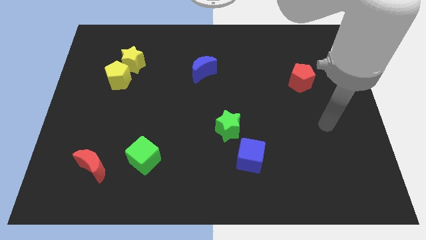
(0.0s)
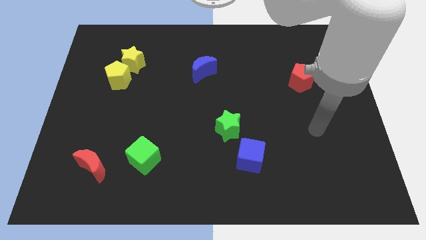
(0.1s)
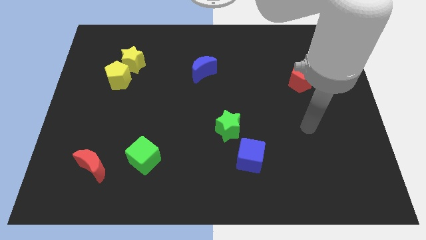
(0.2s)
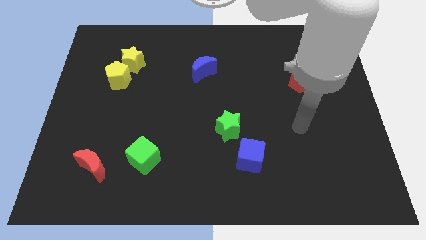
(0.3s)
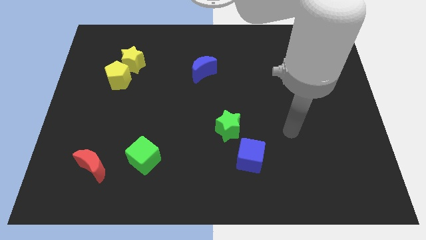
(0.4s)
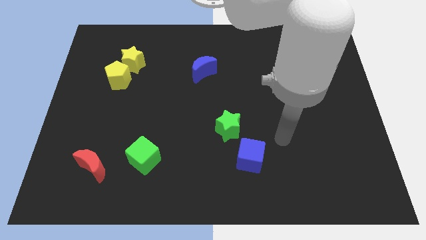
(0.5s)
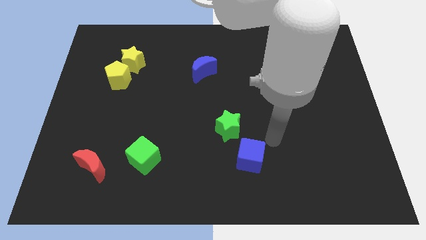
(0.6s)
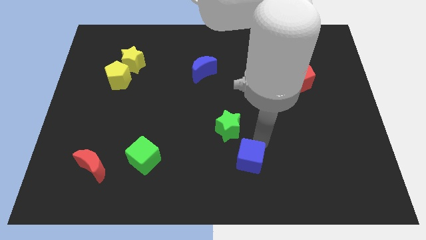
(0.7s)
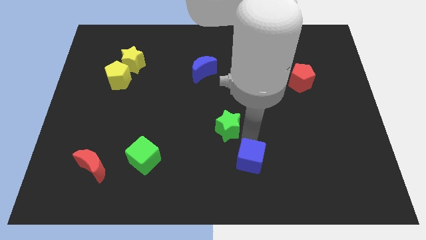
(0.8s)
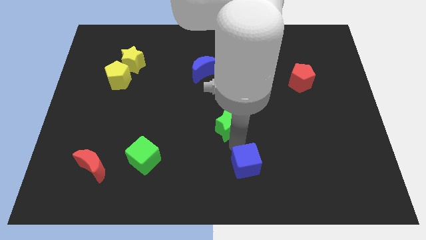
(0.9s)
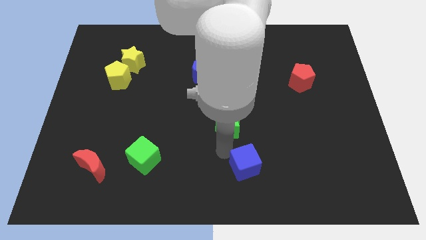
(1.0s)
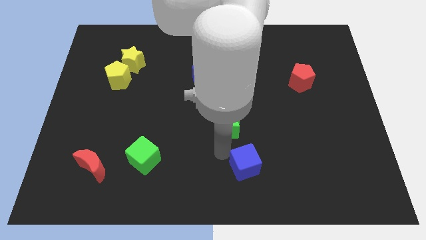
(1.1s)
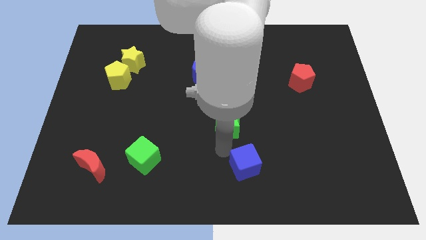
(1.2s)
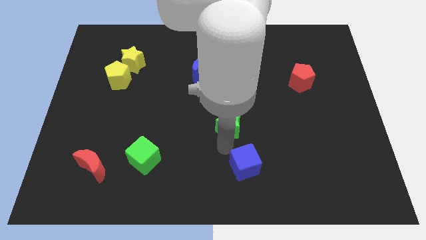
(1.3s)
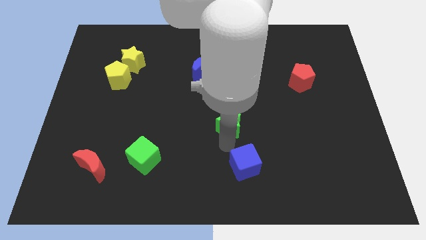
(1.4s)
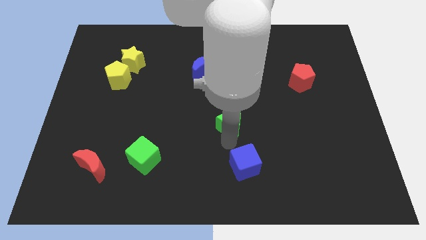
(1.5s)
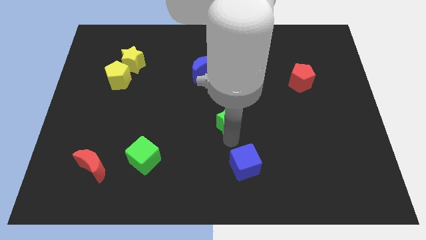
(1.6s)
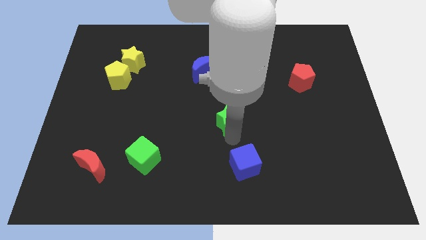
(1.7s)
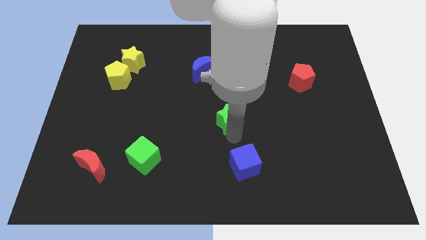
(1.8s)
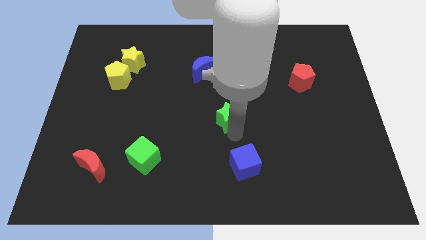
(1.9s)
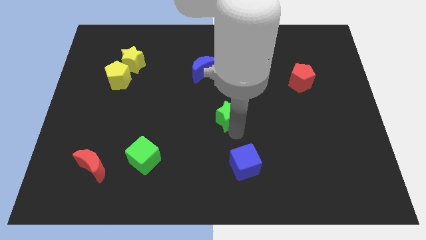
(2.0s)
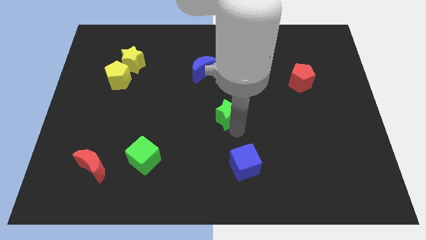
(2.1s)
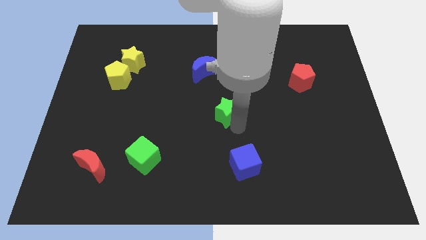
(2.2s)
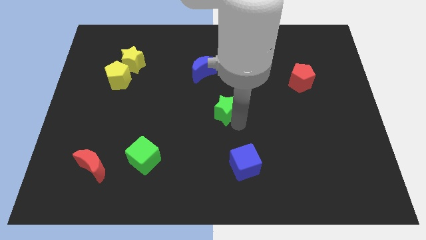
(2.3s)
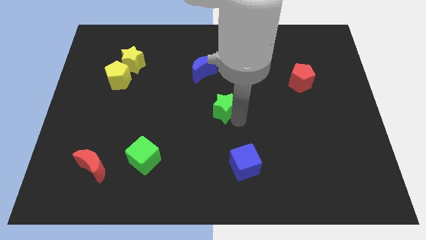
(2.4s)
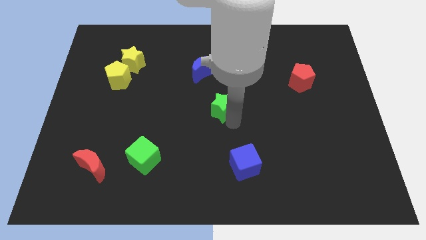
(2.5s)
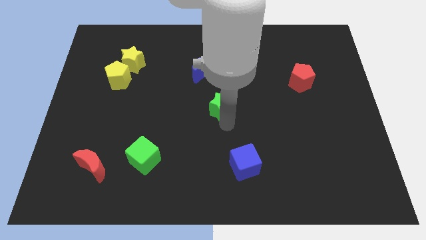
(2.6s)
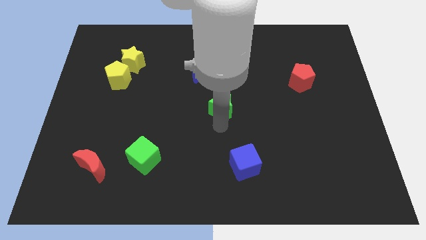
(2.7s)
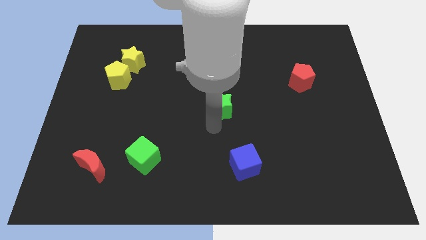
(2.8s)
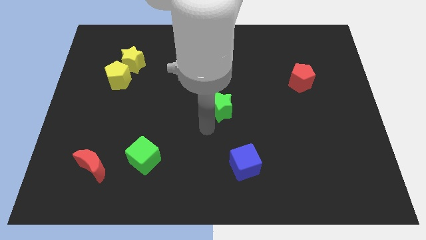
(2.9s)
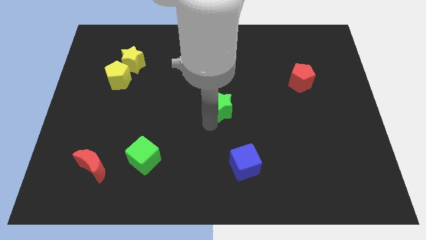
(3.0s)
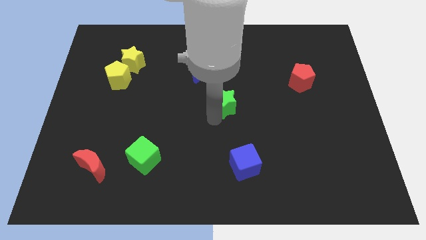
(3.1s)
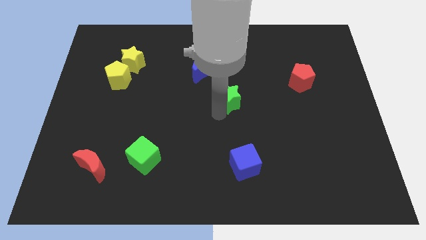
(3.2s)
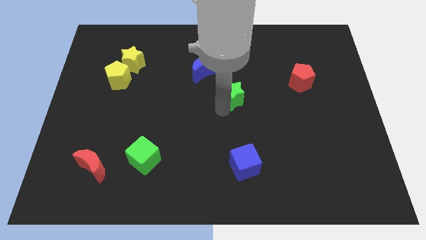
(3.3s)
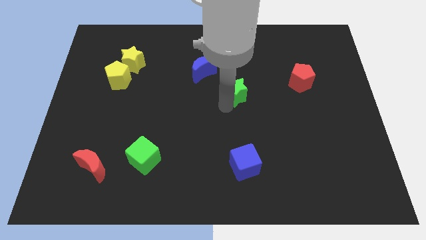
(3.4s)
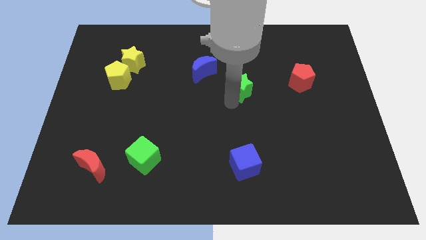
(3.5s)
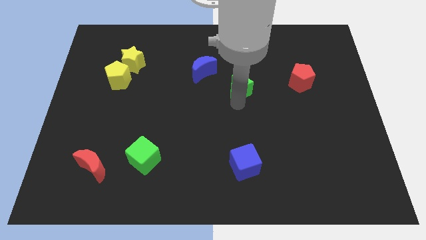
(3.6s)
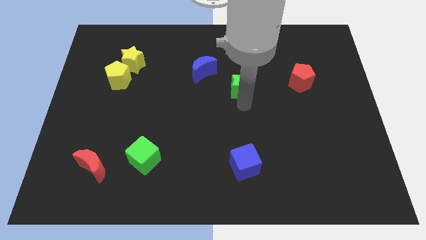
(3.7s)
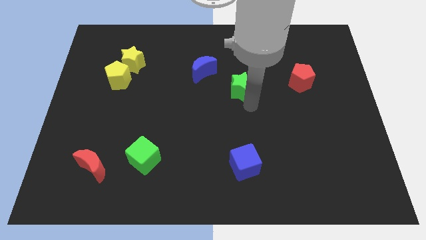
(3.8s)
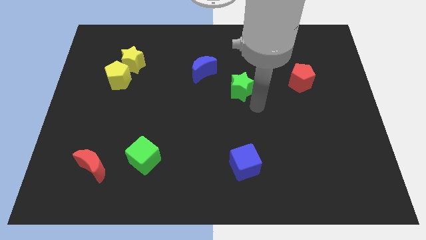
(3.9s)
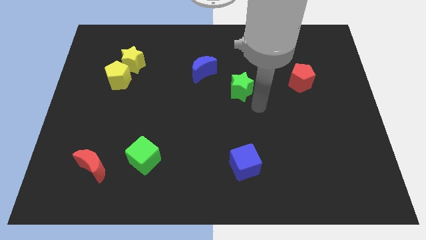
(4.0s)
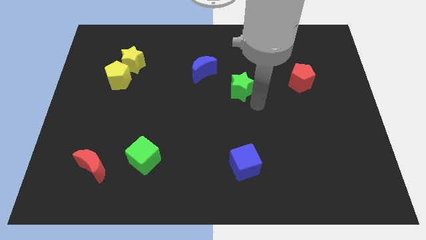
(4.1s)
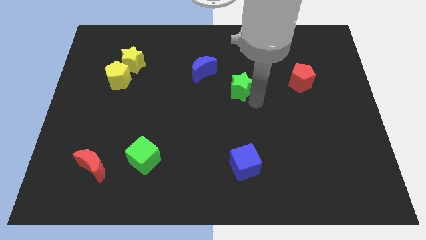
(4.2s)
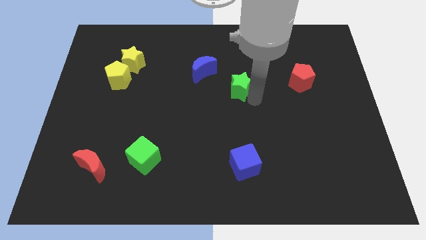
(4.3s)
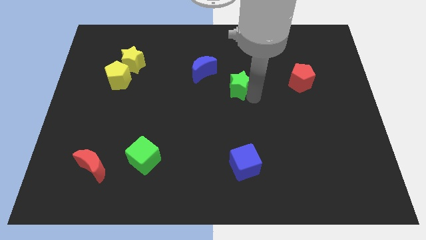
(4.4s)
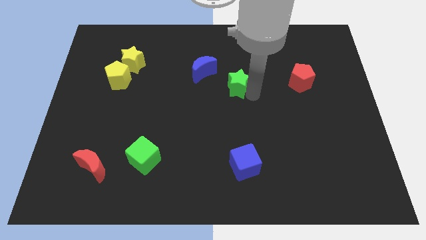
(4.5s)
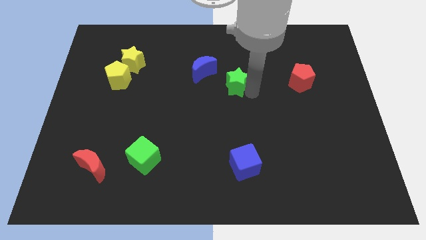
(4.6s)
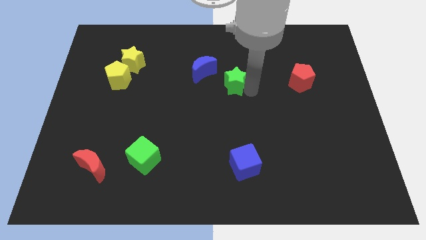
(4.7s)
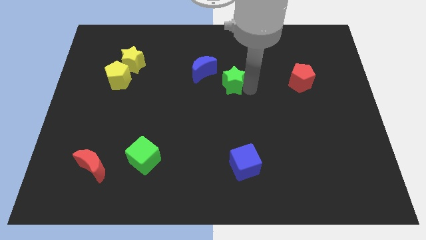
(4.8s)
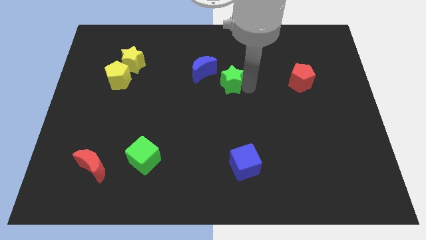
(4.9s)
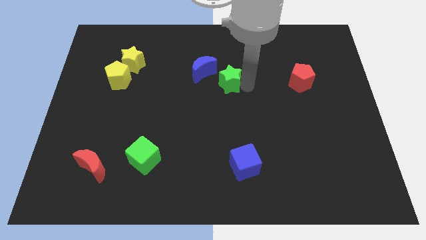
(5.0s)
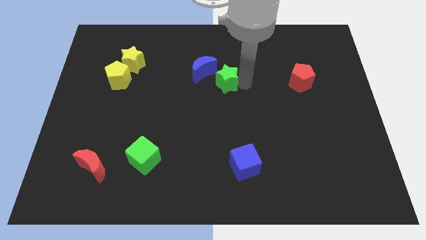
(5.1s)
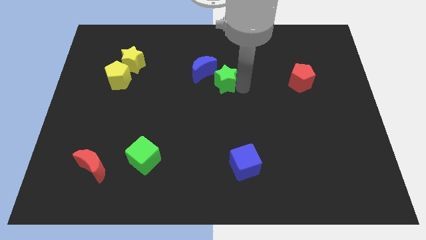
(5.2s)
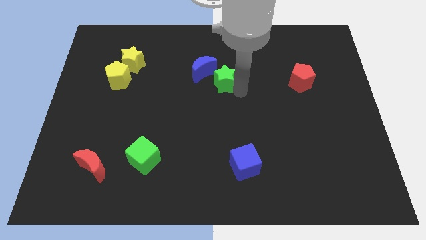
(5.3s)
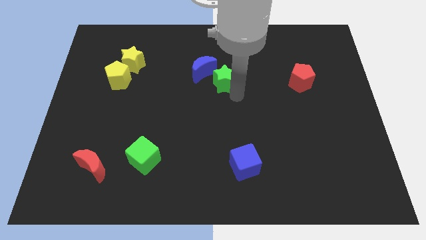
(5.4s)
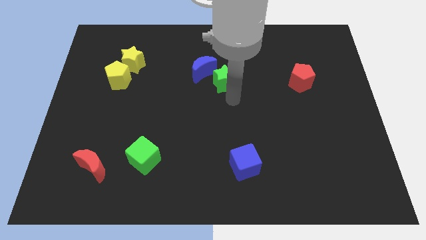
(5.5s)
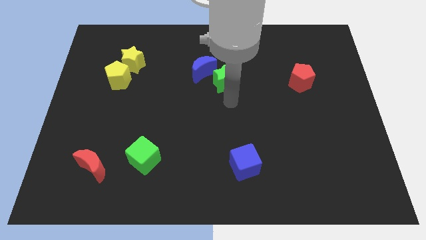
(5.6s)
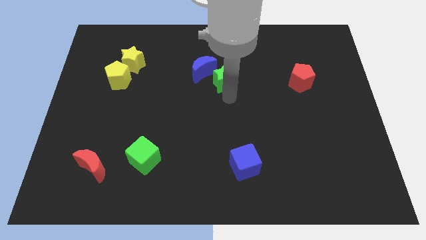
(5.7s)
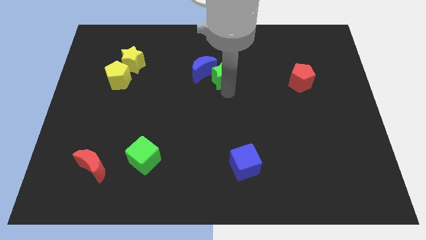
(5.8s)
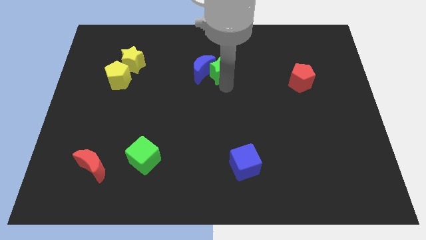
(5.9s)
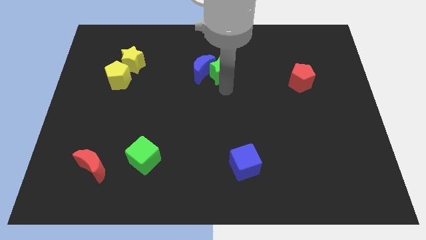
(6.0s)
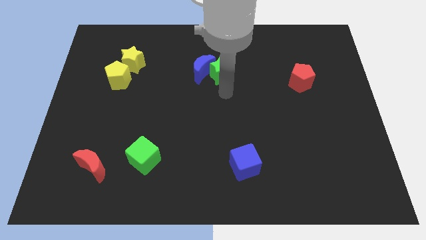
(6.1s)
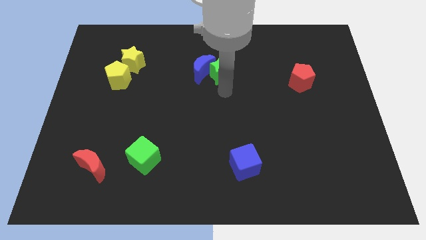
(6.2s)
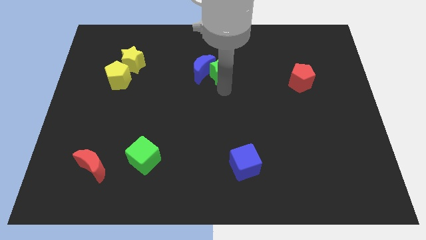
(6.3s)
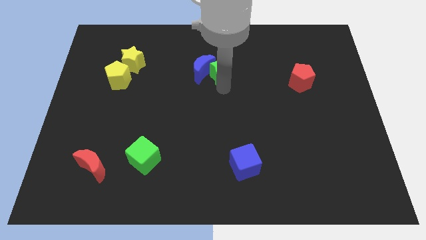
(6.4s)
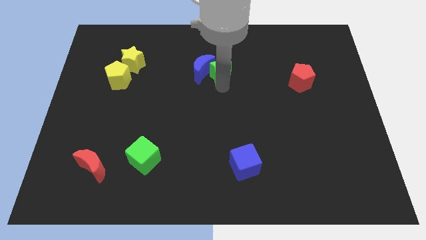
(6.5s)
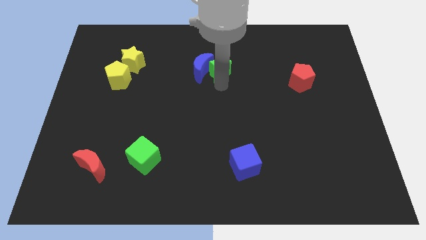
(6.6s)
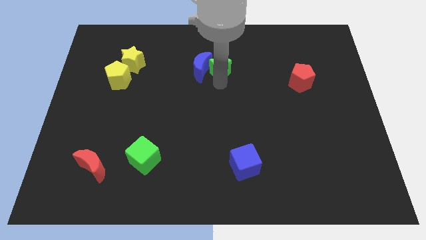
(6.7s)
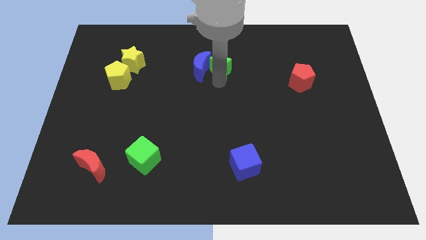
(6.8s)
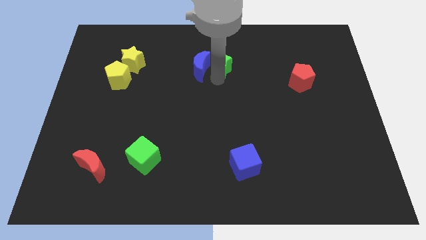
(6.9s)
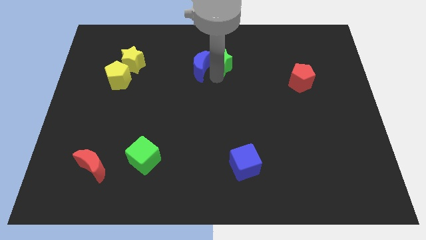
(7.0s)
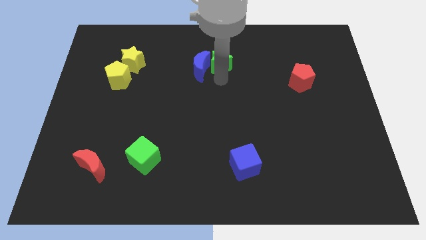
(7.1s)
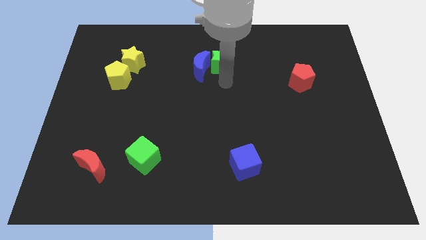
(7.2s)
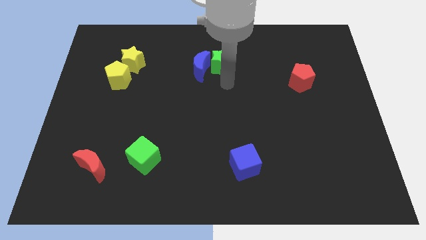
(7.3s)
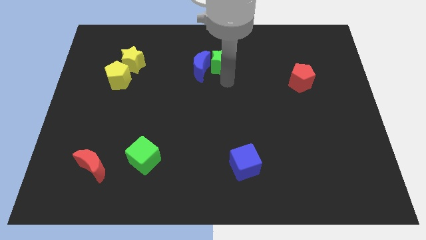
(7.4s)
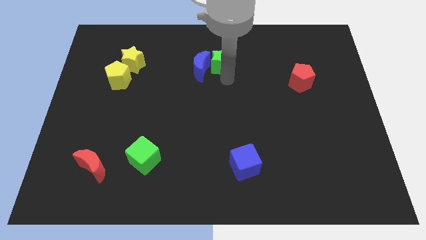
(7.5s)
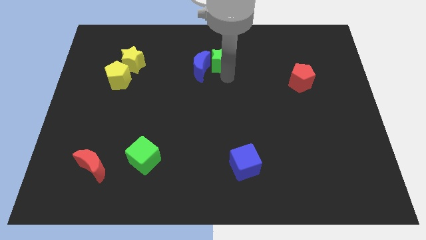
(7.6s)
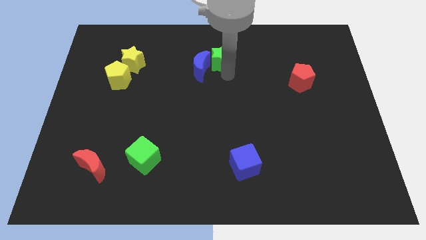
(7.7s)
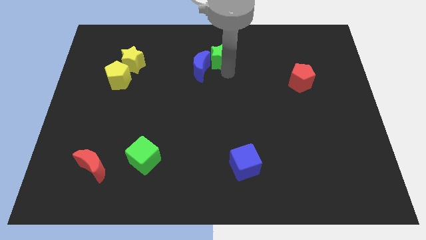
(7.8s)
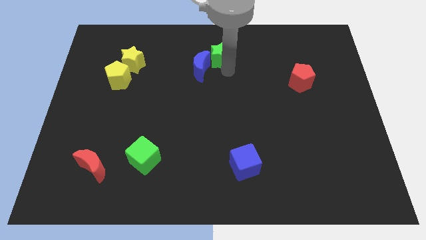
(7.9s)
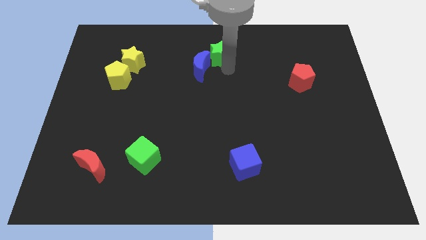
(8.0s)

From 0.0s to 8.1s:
put the green star to the top side
